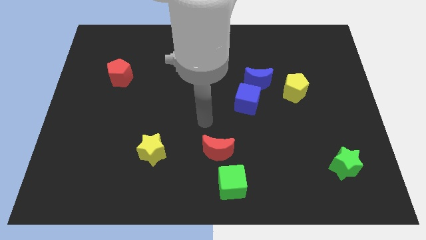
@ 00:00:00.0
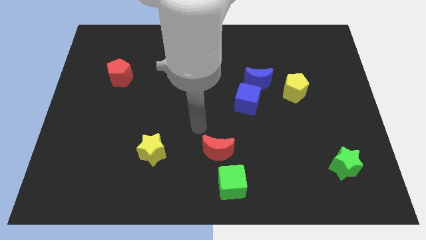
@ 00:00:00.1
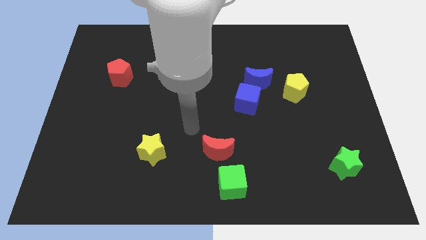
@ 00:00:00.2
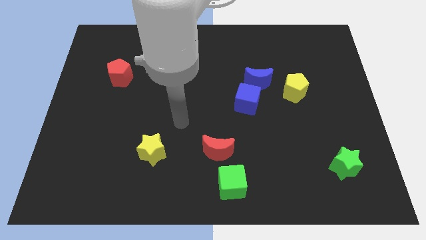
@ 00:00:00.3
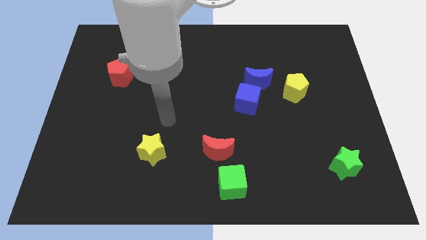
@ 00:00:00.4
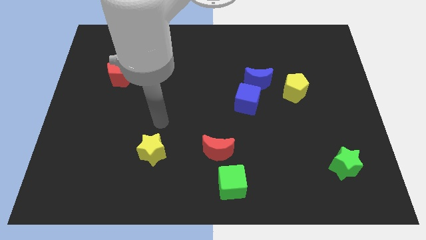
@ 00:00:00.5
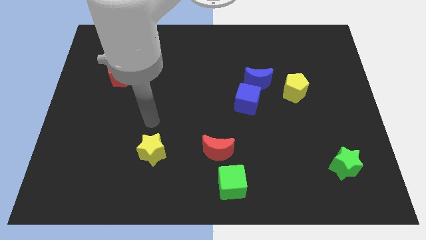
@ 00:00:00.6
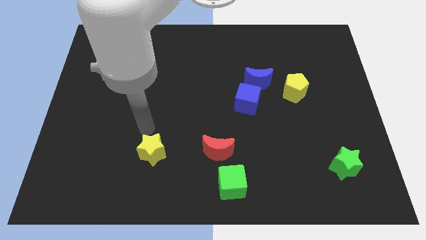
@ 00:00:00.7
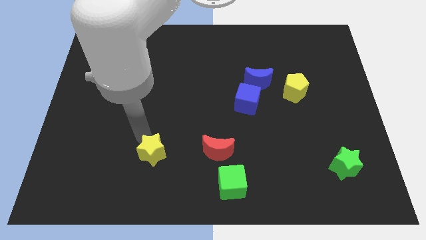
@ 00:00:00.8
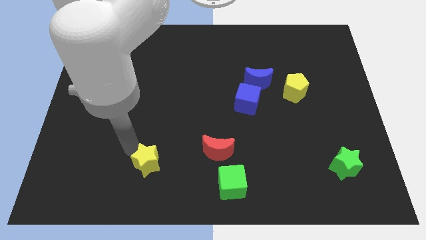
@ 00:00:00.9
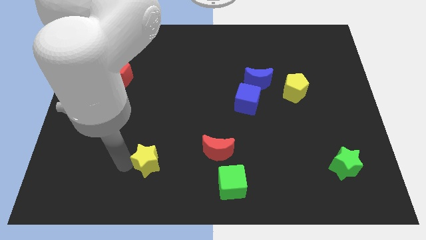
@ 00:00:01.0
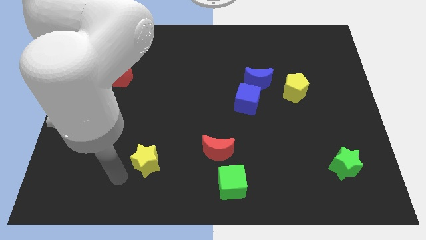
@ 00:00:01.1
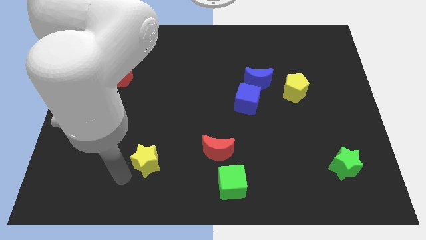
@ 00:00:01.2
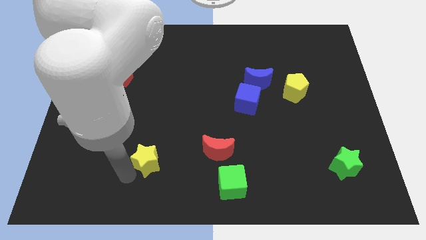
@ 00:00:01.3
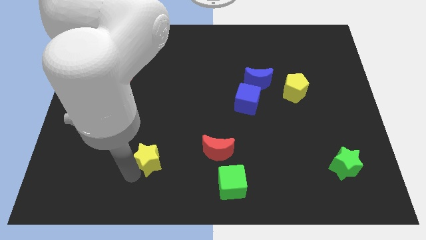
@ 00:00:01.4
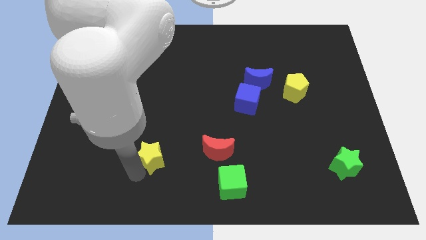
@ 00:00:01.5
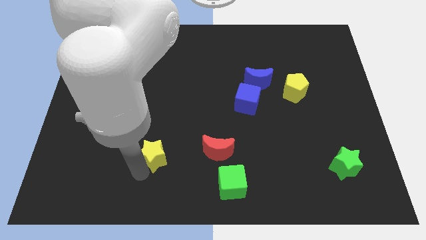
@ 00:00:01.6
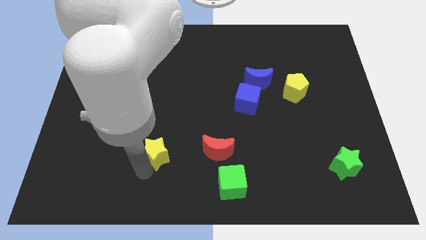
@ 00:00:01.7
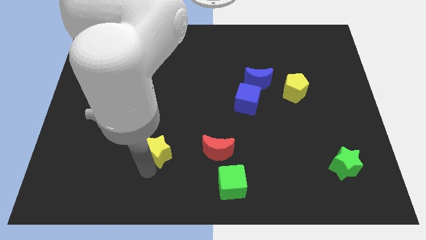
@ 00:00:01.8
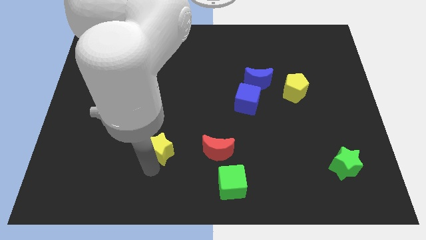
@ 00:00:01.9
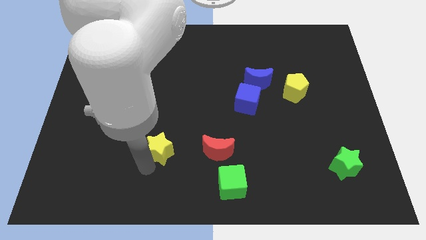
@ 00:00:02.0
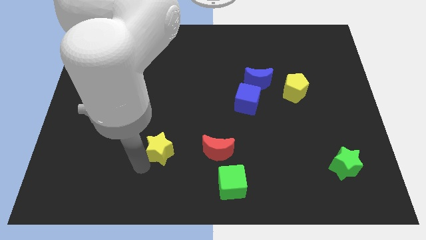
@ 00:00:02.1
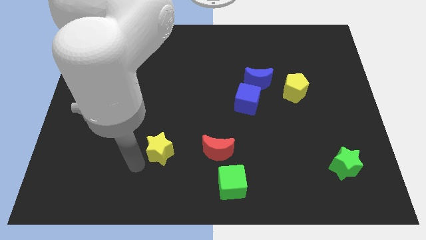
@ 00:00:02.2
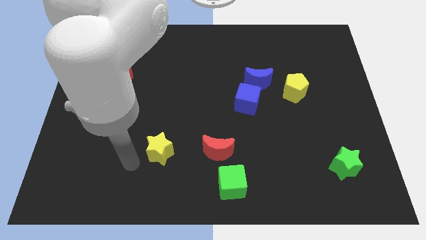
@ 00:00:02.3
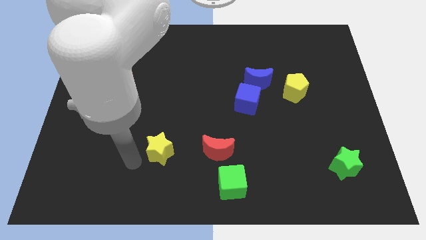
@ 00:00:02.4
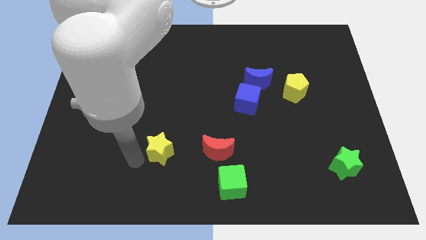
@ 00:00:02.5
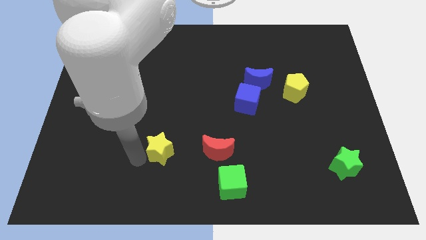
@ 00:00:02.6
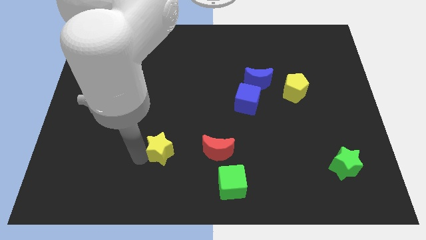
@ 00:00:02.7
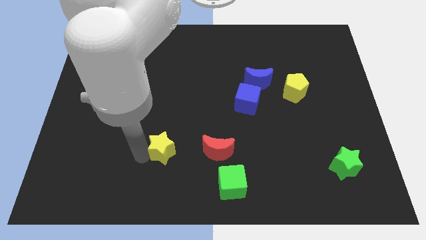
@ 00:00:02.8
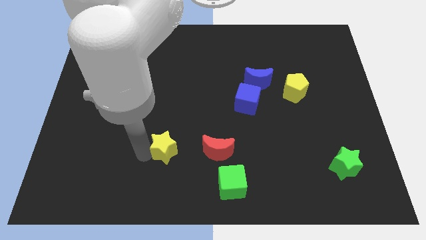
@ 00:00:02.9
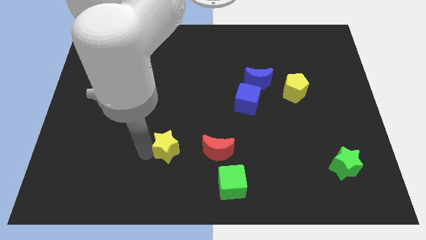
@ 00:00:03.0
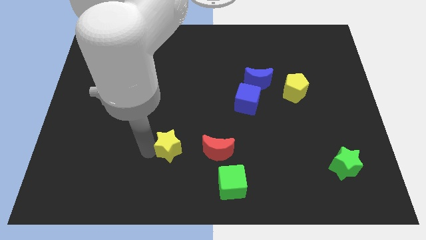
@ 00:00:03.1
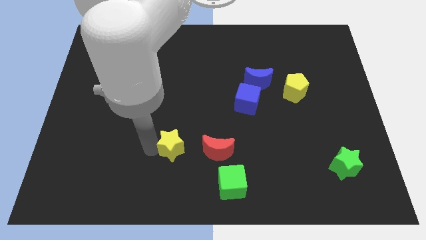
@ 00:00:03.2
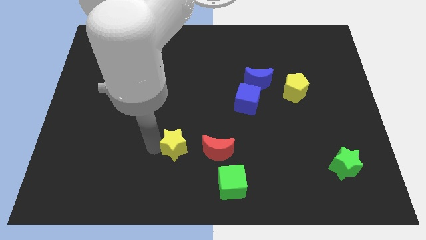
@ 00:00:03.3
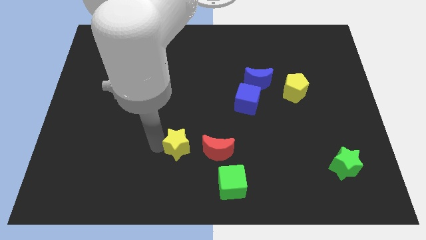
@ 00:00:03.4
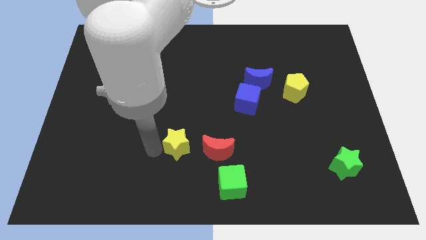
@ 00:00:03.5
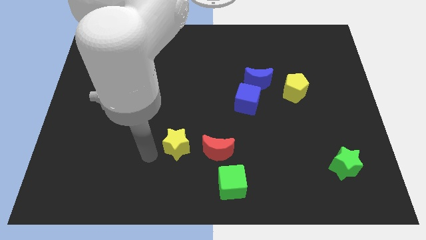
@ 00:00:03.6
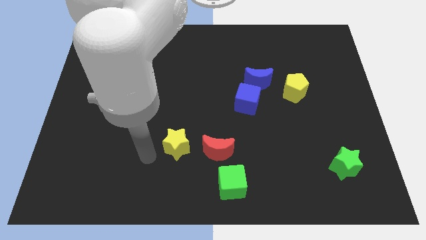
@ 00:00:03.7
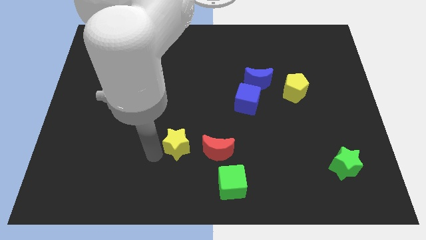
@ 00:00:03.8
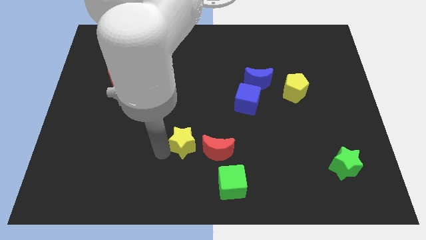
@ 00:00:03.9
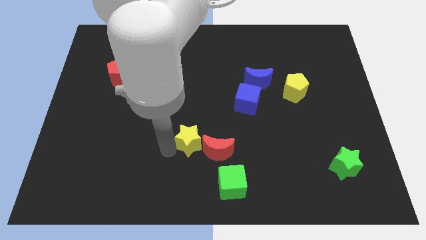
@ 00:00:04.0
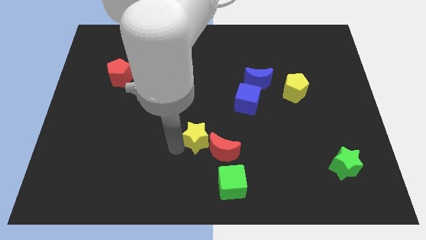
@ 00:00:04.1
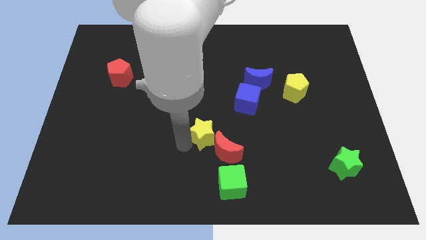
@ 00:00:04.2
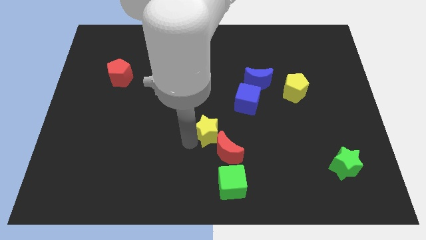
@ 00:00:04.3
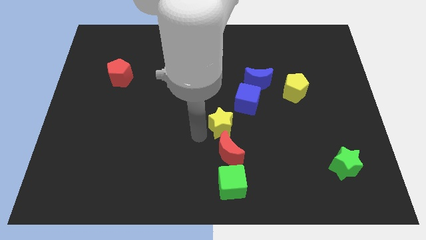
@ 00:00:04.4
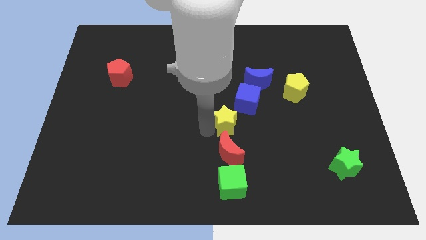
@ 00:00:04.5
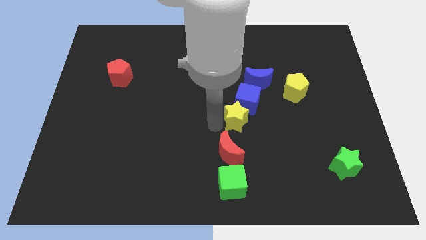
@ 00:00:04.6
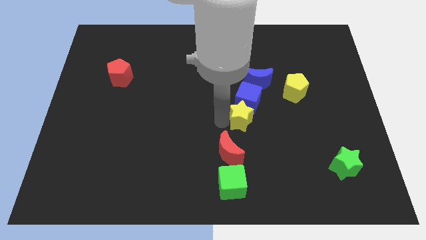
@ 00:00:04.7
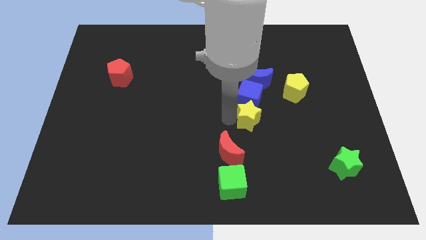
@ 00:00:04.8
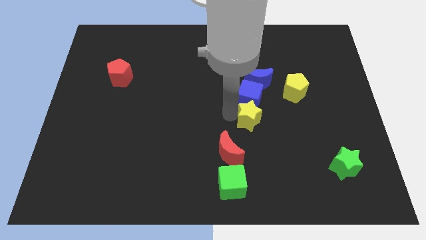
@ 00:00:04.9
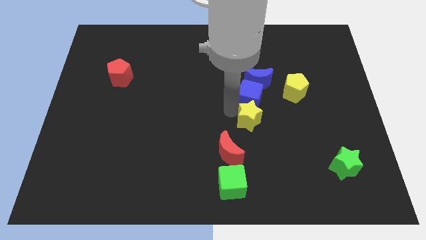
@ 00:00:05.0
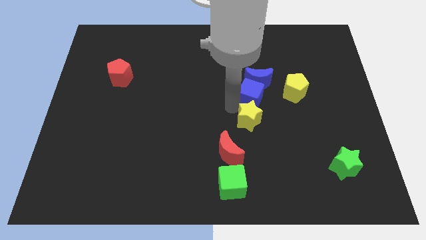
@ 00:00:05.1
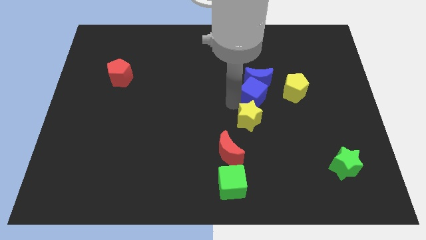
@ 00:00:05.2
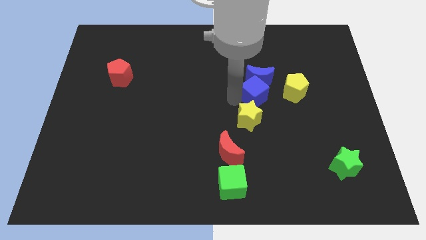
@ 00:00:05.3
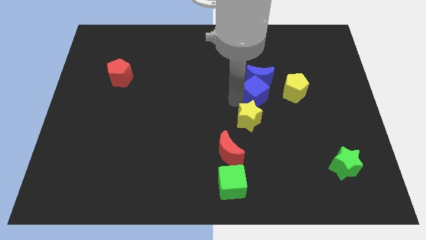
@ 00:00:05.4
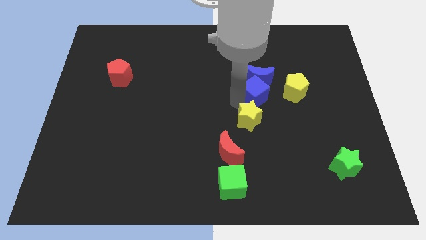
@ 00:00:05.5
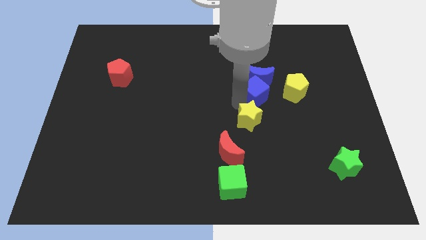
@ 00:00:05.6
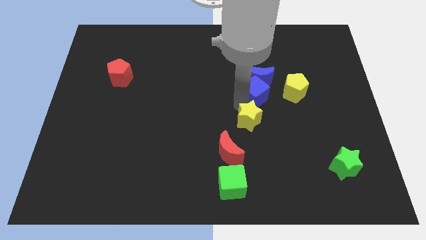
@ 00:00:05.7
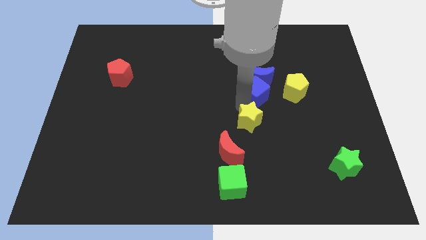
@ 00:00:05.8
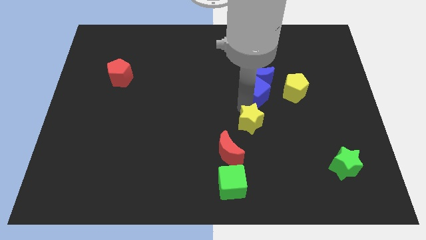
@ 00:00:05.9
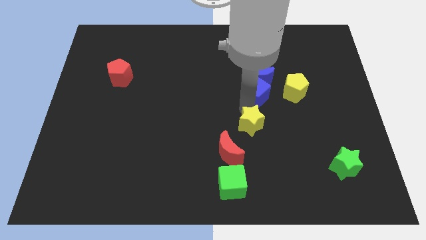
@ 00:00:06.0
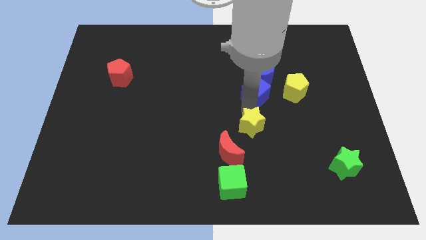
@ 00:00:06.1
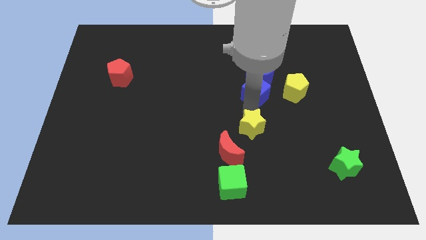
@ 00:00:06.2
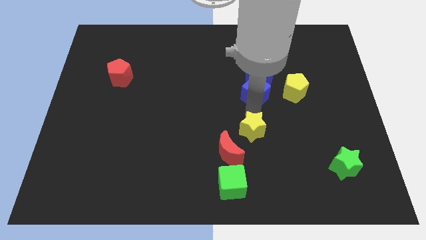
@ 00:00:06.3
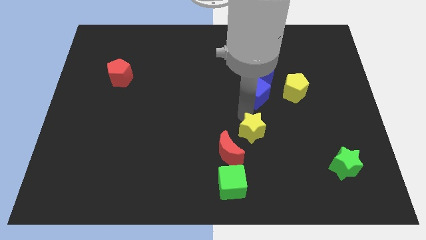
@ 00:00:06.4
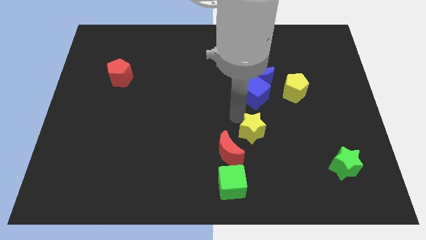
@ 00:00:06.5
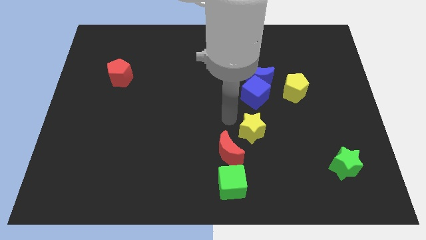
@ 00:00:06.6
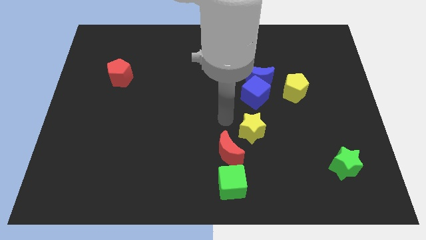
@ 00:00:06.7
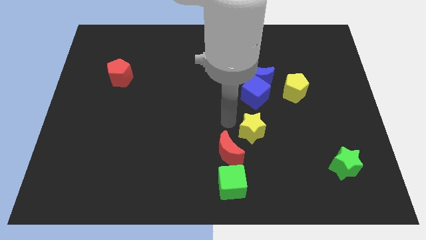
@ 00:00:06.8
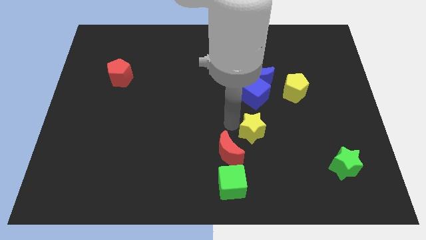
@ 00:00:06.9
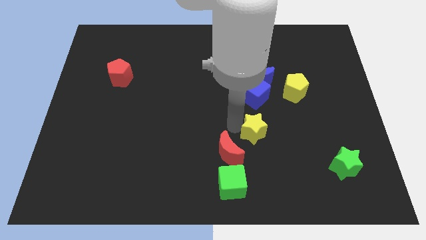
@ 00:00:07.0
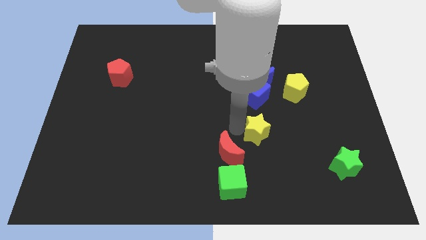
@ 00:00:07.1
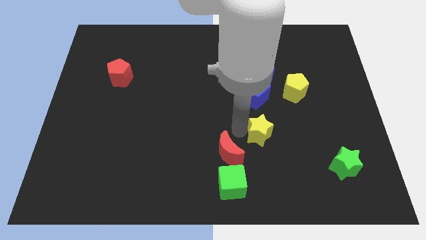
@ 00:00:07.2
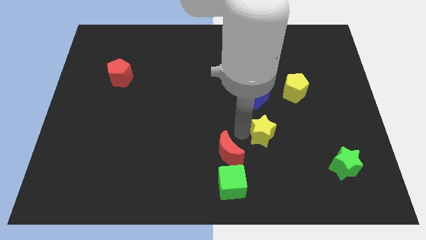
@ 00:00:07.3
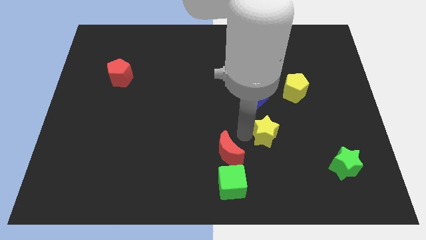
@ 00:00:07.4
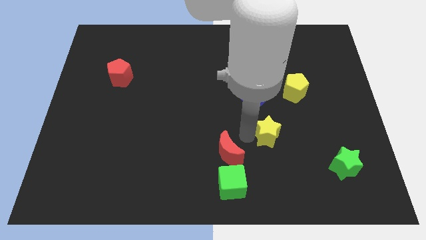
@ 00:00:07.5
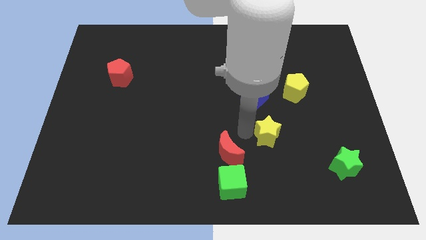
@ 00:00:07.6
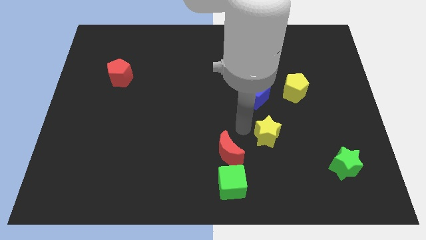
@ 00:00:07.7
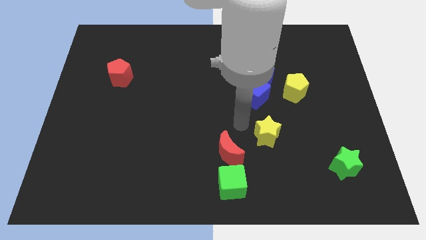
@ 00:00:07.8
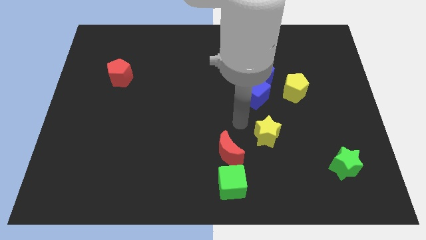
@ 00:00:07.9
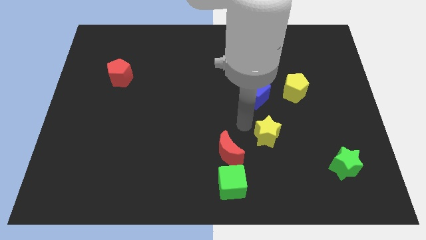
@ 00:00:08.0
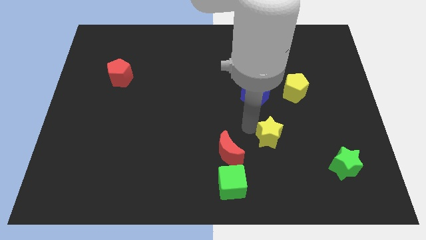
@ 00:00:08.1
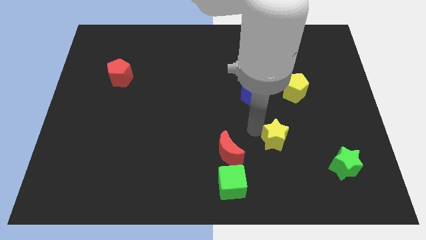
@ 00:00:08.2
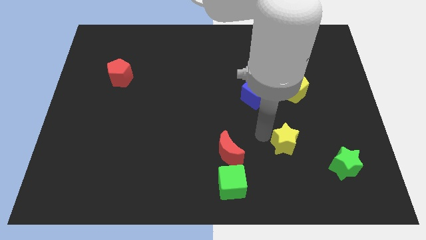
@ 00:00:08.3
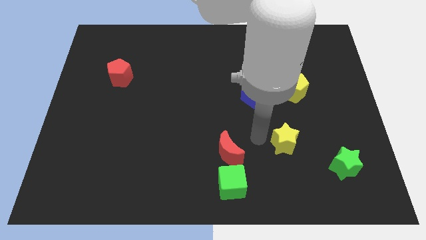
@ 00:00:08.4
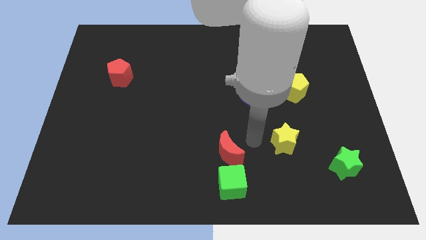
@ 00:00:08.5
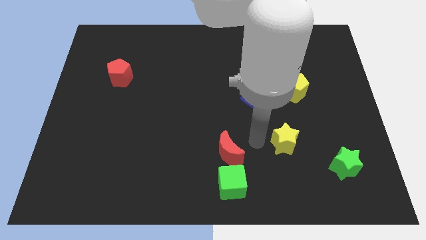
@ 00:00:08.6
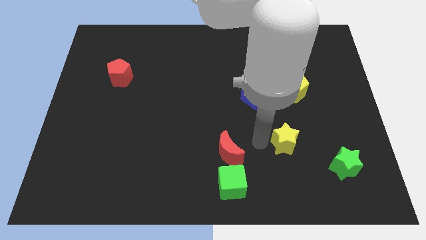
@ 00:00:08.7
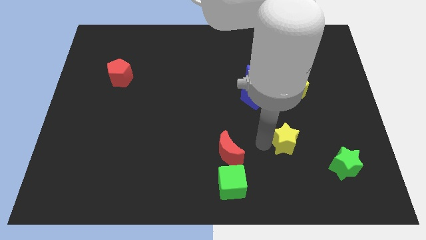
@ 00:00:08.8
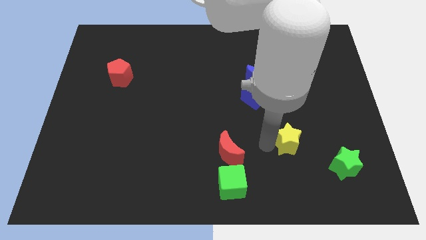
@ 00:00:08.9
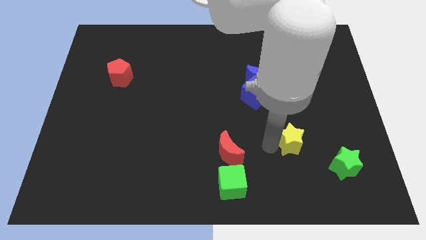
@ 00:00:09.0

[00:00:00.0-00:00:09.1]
move the yellow star diagonally up and to the left of the green star
